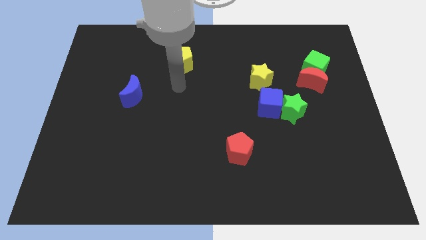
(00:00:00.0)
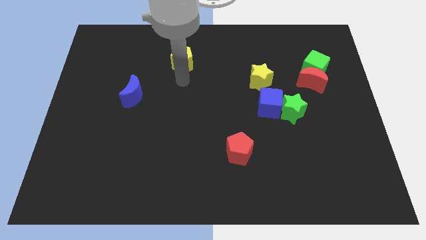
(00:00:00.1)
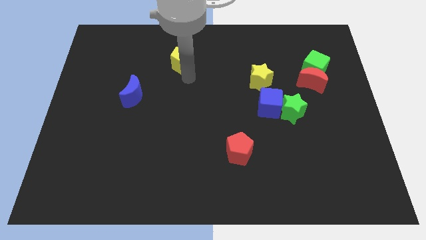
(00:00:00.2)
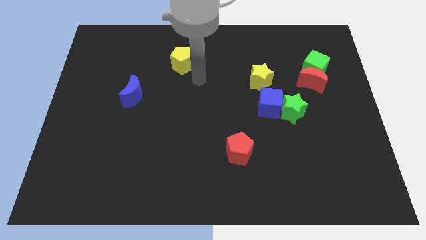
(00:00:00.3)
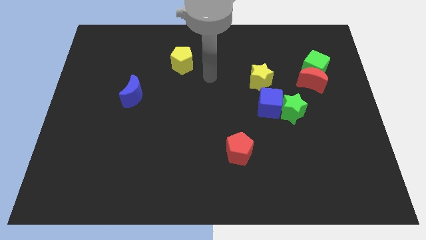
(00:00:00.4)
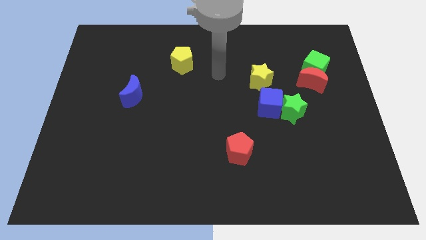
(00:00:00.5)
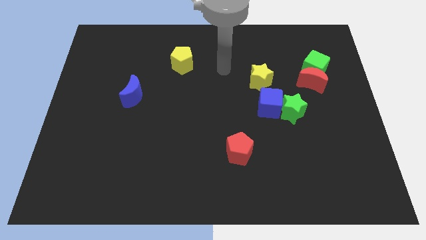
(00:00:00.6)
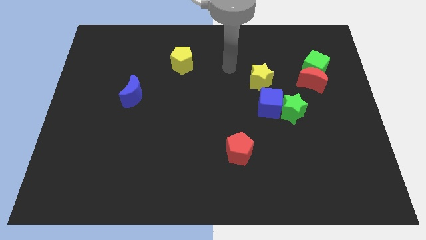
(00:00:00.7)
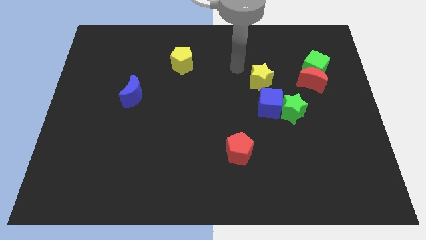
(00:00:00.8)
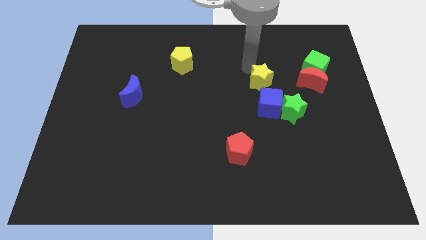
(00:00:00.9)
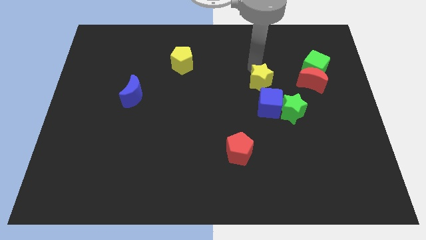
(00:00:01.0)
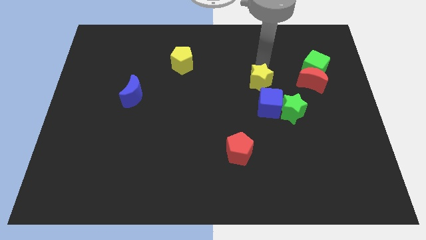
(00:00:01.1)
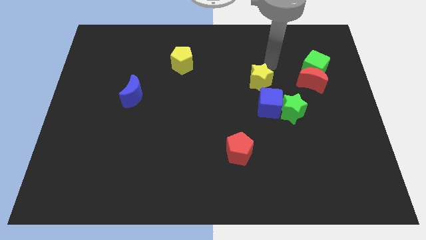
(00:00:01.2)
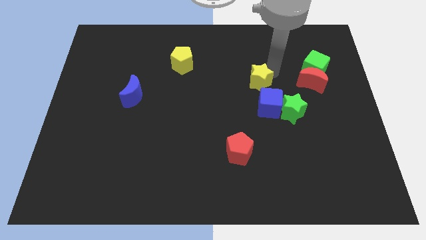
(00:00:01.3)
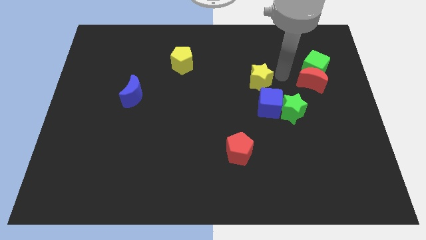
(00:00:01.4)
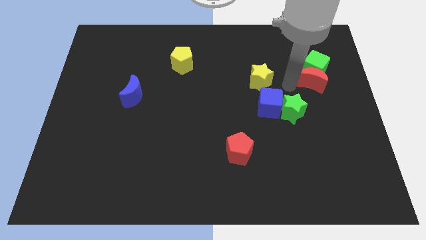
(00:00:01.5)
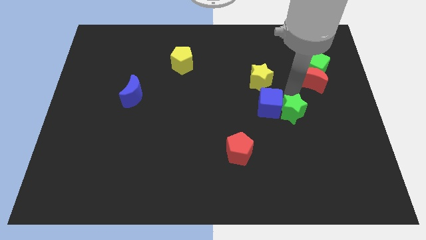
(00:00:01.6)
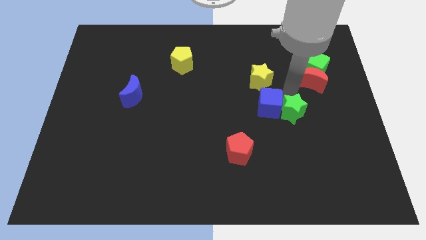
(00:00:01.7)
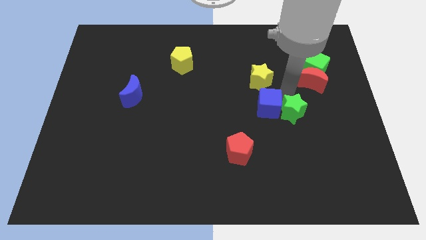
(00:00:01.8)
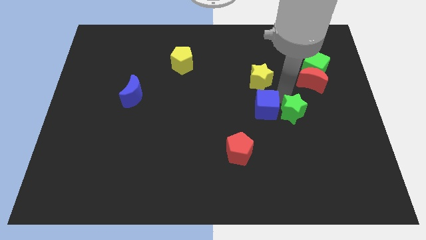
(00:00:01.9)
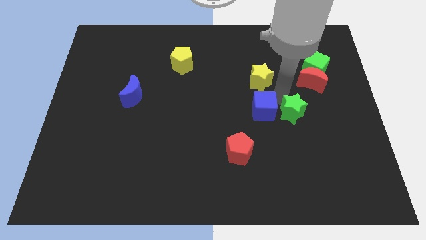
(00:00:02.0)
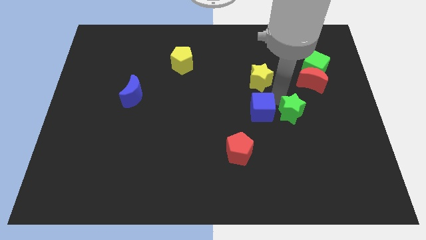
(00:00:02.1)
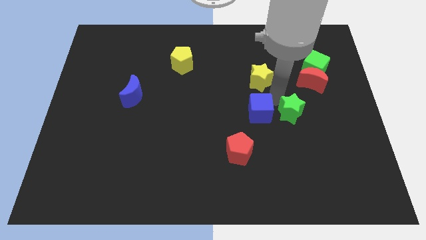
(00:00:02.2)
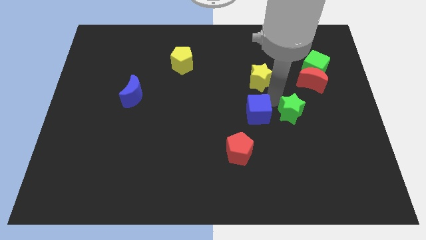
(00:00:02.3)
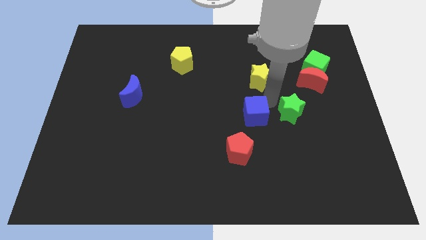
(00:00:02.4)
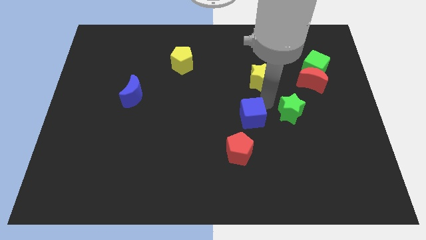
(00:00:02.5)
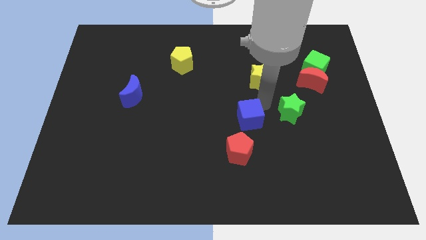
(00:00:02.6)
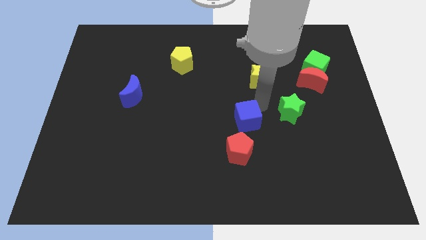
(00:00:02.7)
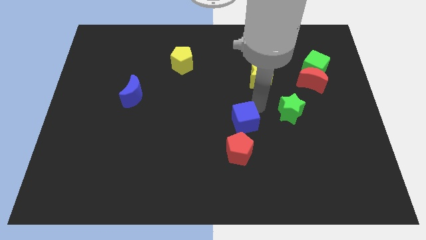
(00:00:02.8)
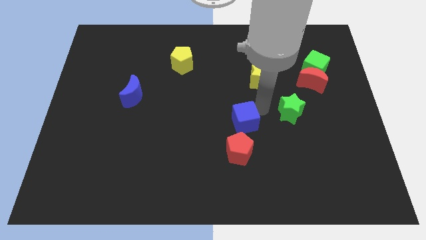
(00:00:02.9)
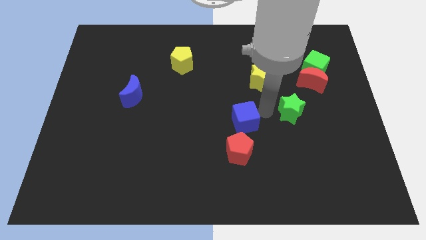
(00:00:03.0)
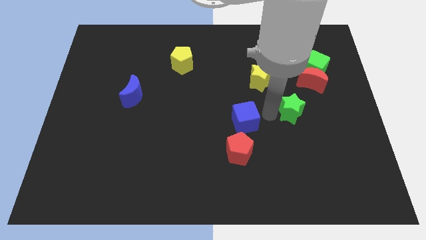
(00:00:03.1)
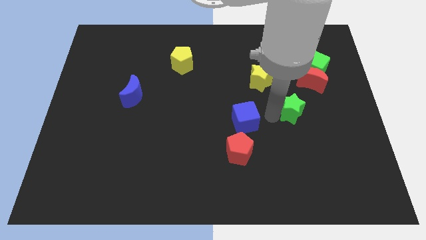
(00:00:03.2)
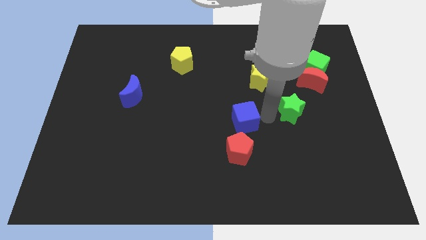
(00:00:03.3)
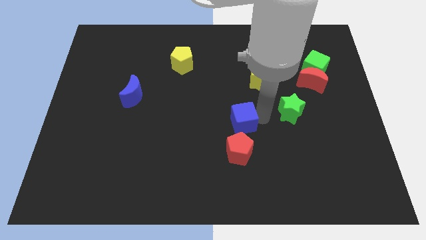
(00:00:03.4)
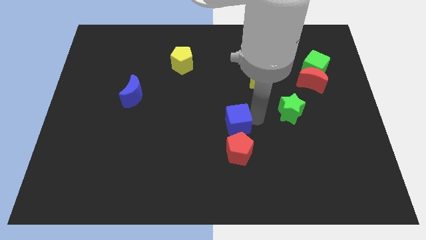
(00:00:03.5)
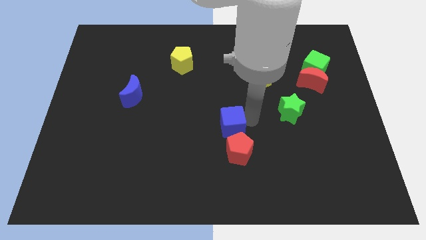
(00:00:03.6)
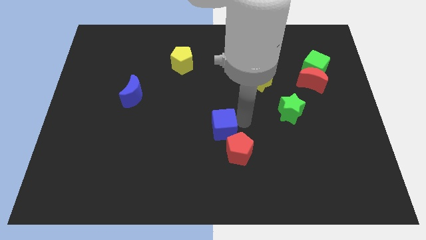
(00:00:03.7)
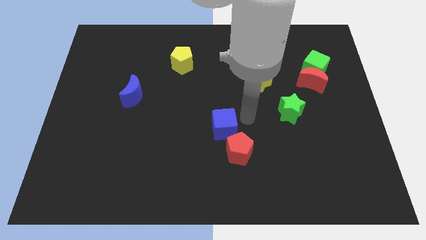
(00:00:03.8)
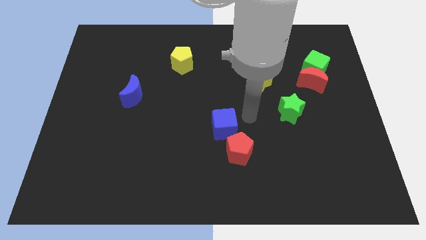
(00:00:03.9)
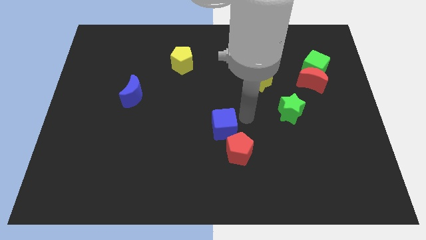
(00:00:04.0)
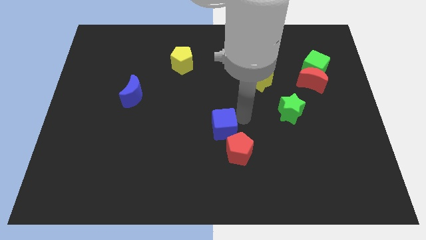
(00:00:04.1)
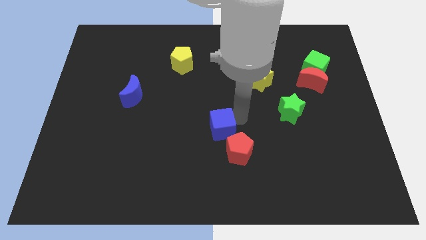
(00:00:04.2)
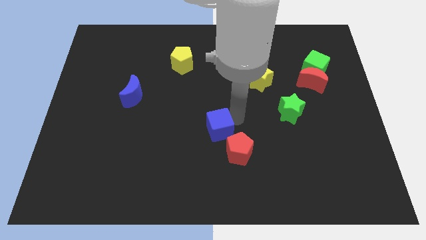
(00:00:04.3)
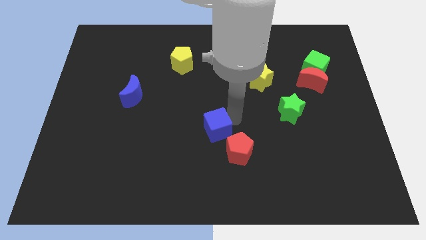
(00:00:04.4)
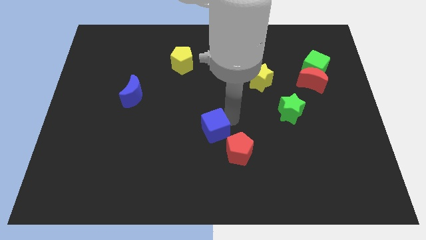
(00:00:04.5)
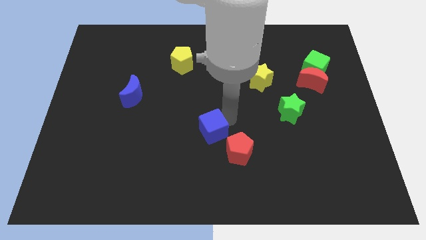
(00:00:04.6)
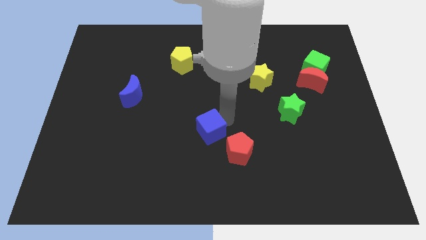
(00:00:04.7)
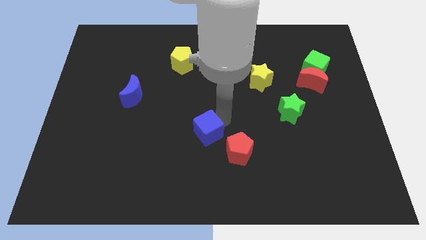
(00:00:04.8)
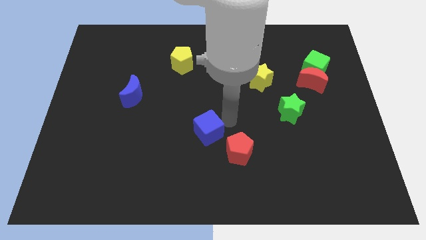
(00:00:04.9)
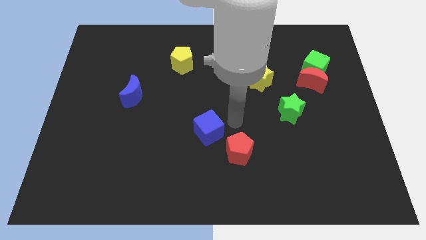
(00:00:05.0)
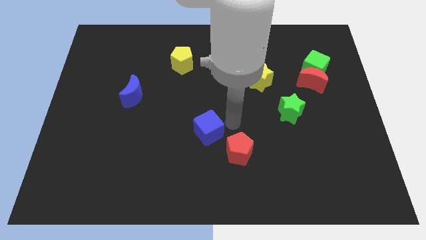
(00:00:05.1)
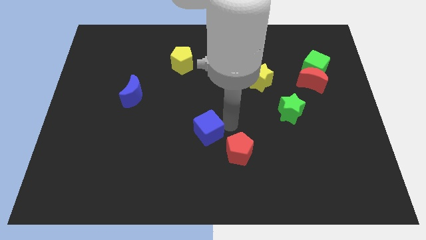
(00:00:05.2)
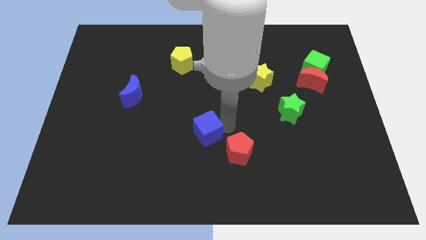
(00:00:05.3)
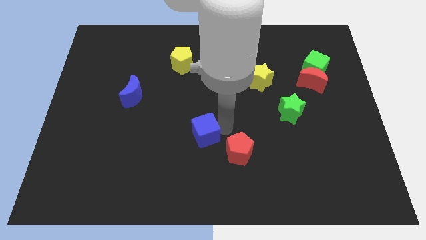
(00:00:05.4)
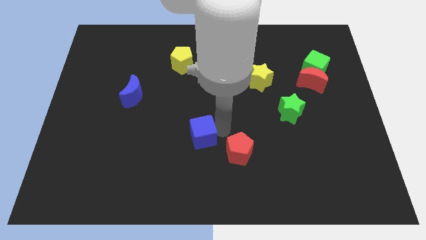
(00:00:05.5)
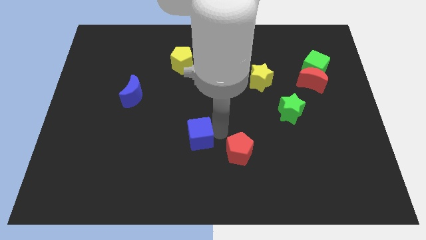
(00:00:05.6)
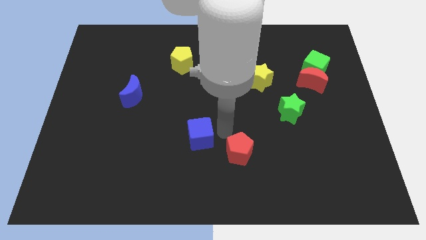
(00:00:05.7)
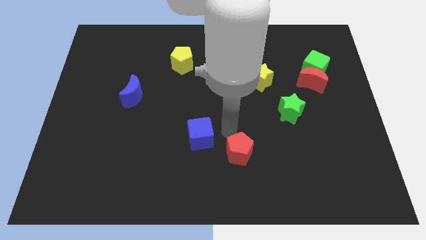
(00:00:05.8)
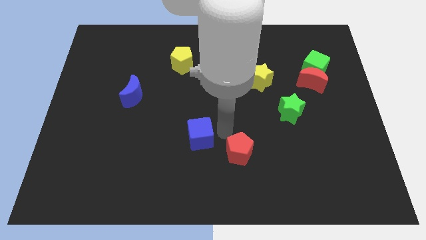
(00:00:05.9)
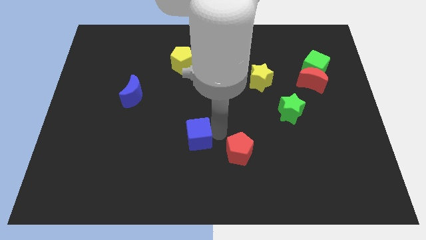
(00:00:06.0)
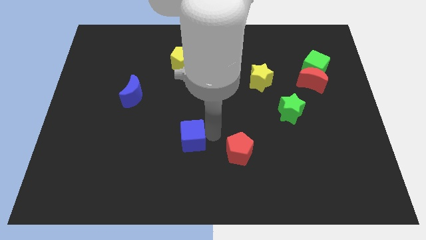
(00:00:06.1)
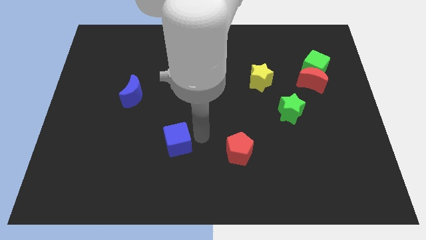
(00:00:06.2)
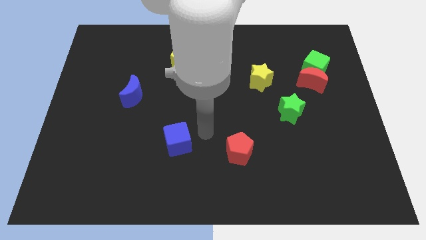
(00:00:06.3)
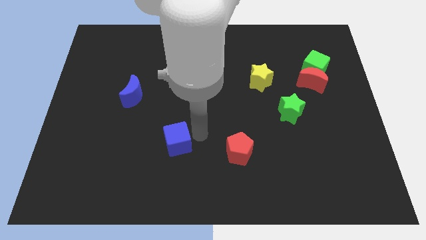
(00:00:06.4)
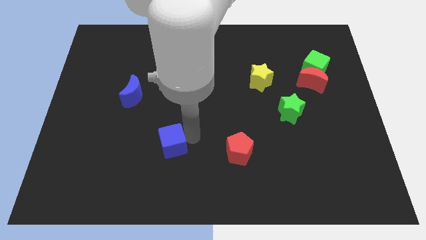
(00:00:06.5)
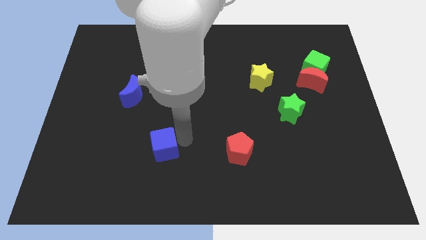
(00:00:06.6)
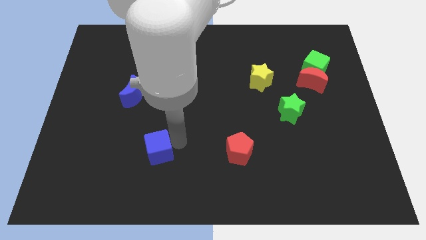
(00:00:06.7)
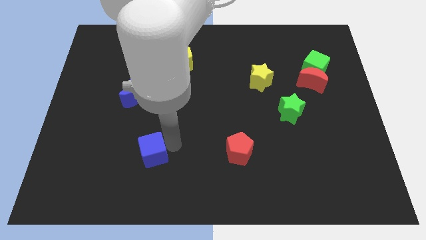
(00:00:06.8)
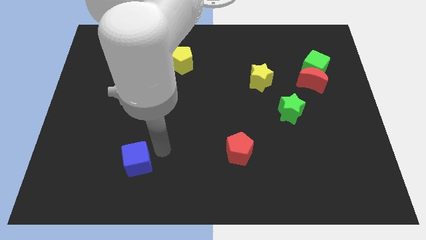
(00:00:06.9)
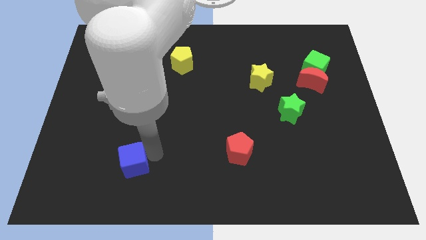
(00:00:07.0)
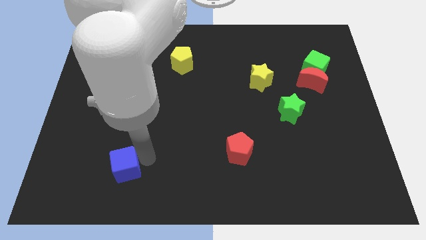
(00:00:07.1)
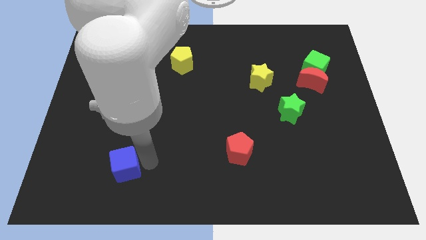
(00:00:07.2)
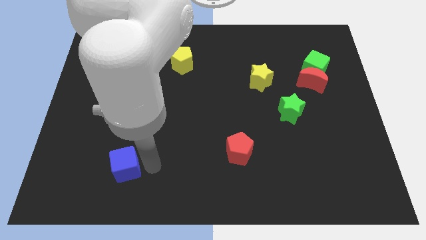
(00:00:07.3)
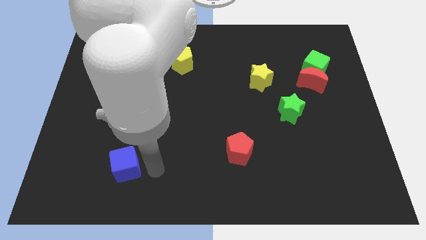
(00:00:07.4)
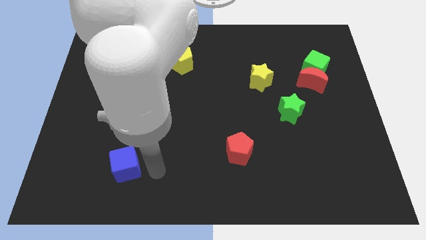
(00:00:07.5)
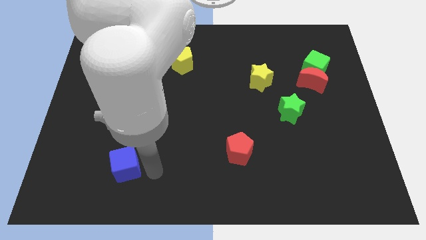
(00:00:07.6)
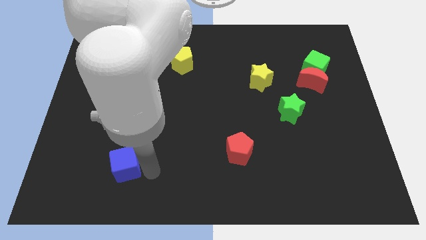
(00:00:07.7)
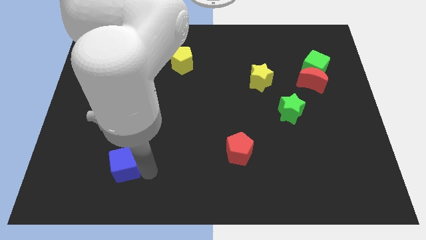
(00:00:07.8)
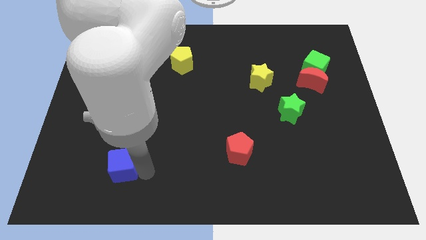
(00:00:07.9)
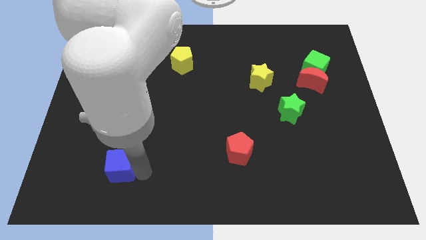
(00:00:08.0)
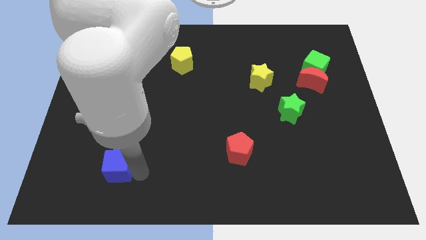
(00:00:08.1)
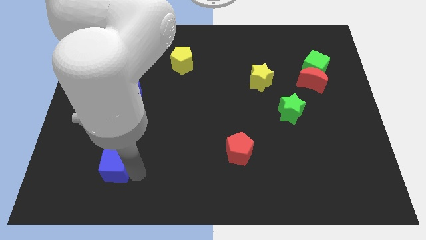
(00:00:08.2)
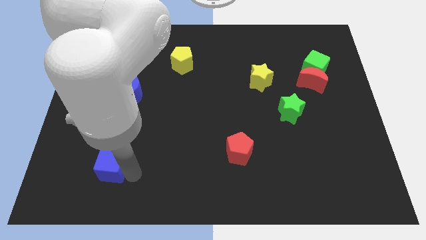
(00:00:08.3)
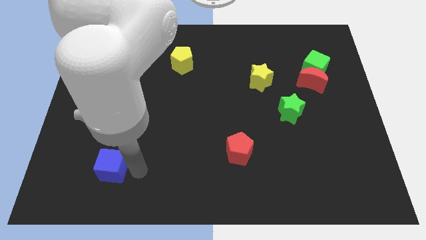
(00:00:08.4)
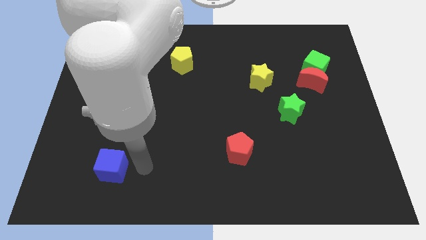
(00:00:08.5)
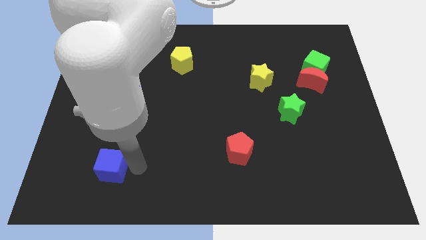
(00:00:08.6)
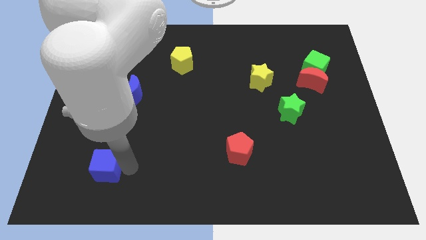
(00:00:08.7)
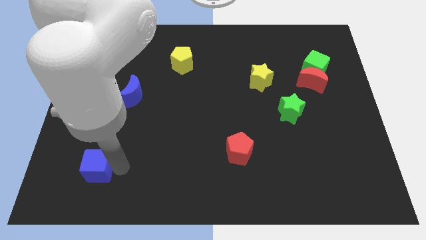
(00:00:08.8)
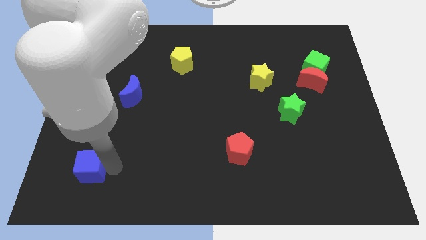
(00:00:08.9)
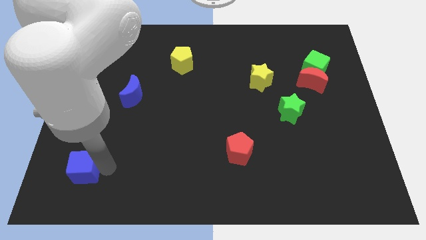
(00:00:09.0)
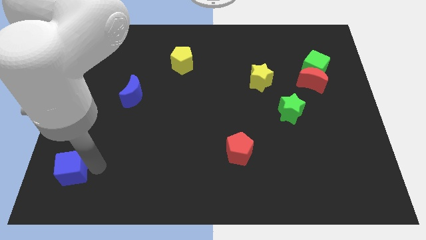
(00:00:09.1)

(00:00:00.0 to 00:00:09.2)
put the blue cube to the lower left corner
